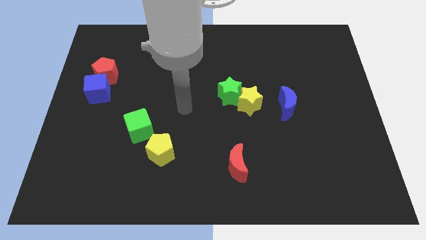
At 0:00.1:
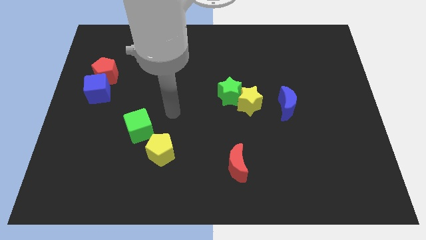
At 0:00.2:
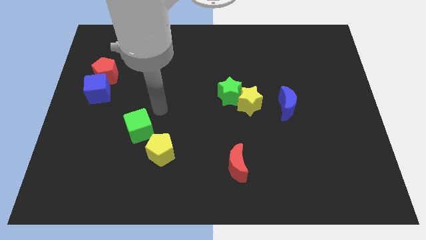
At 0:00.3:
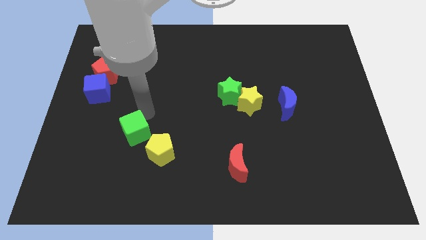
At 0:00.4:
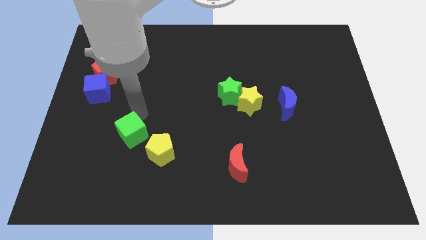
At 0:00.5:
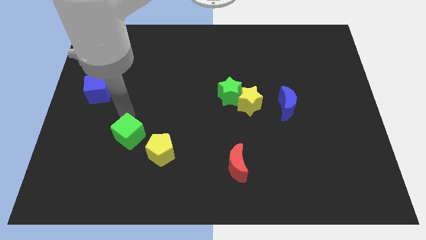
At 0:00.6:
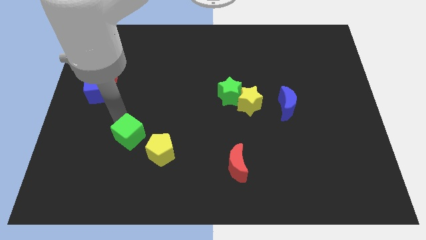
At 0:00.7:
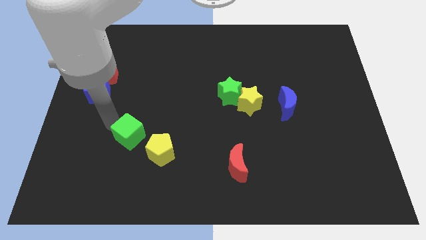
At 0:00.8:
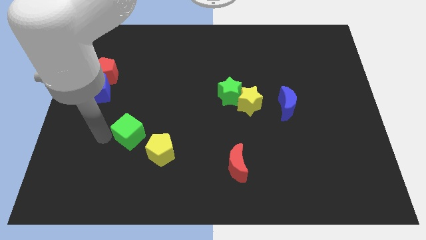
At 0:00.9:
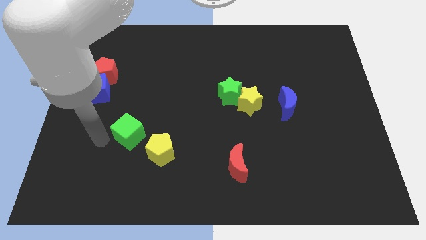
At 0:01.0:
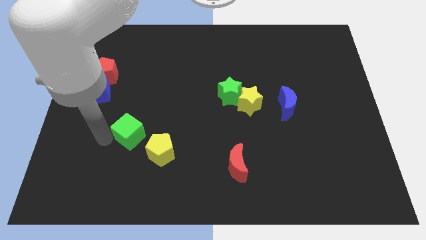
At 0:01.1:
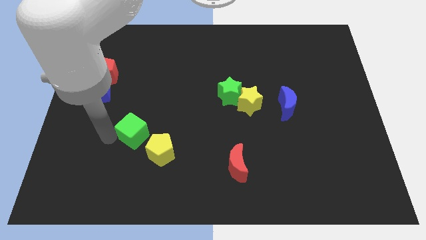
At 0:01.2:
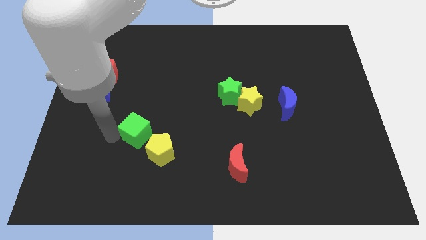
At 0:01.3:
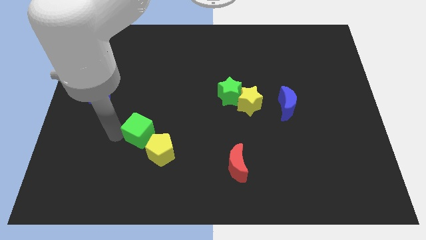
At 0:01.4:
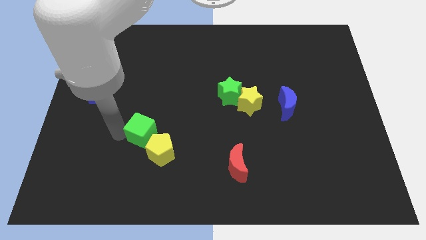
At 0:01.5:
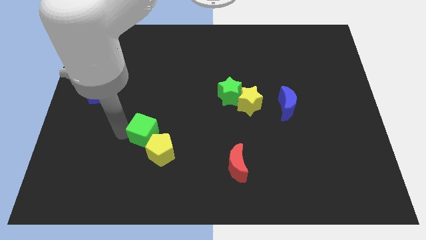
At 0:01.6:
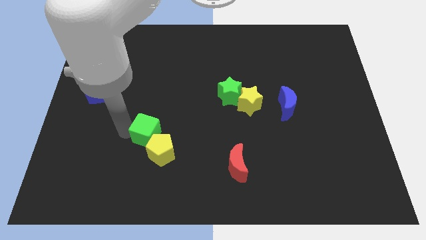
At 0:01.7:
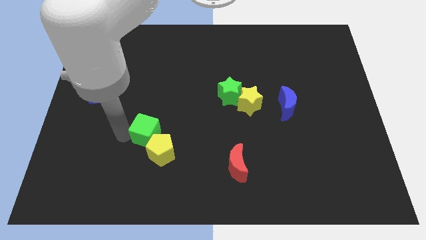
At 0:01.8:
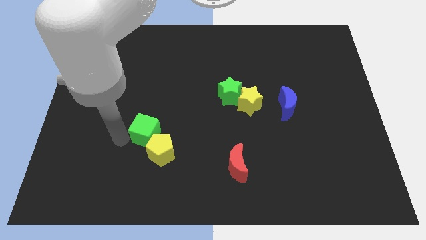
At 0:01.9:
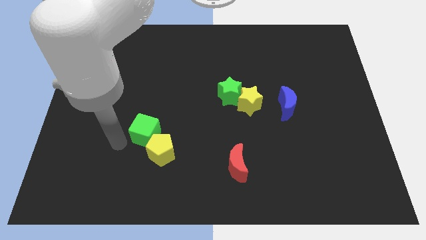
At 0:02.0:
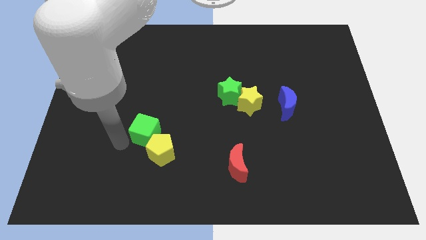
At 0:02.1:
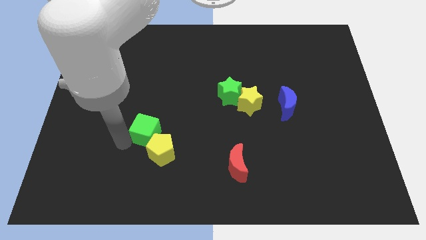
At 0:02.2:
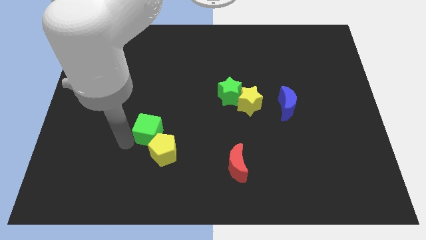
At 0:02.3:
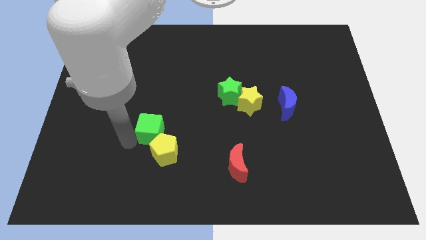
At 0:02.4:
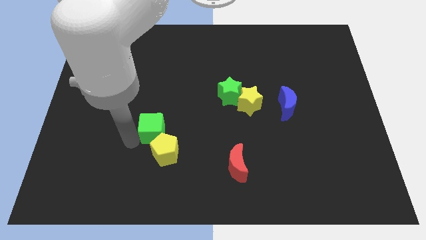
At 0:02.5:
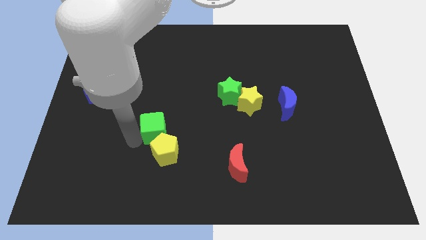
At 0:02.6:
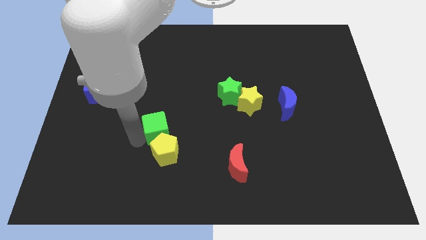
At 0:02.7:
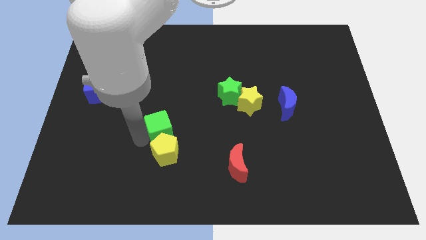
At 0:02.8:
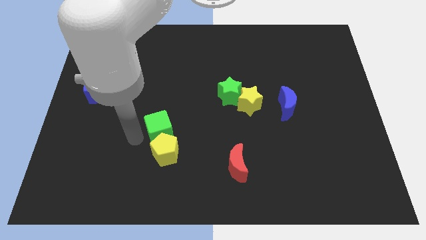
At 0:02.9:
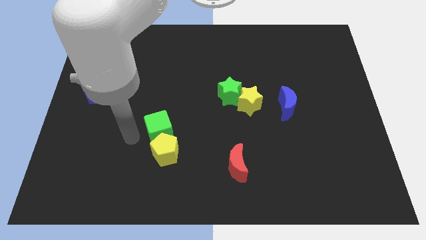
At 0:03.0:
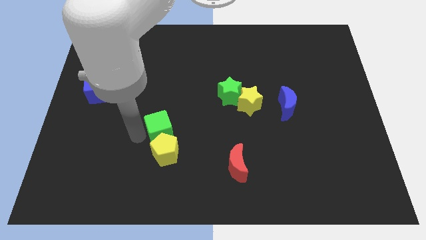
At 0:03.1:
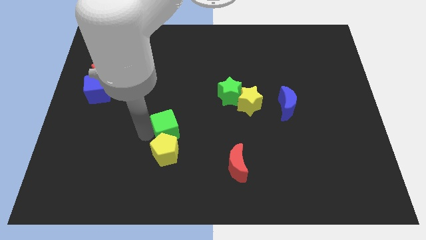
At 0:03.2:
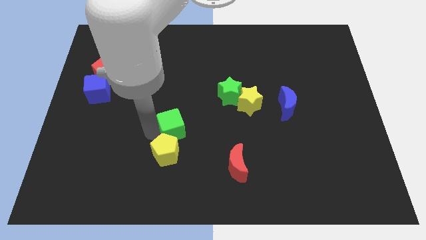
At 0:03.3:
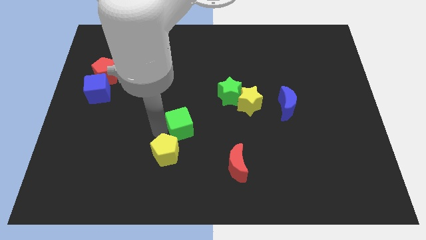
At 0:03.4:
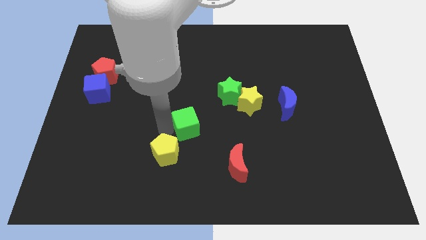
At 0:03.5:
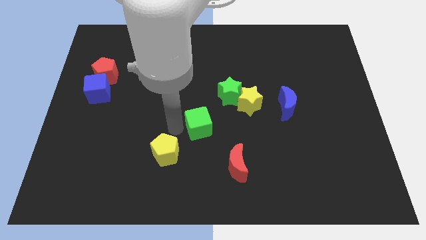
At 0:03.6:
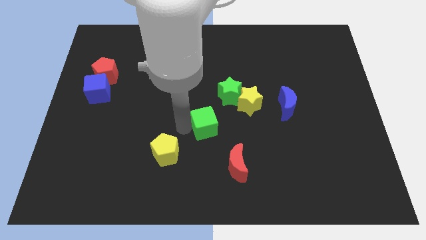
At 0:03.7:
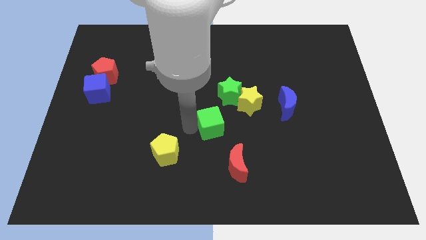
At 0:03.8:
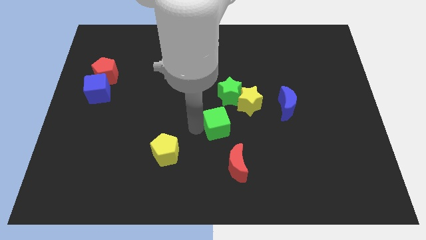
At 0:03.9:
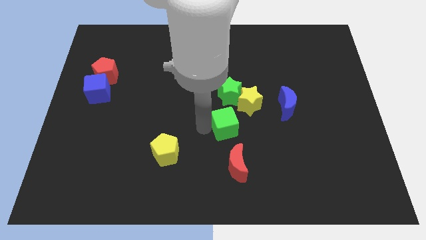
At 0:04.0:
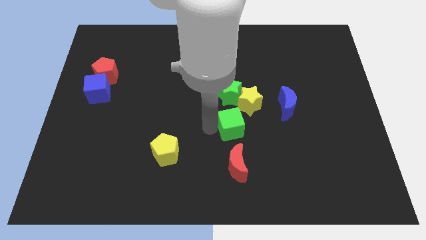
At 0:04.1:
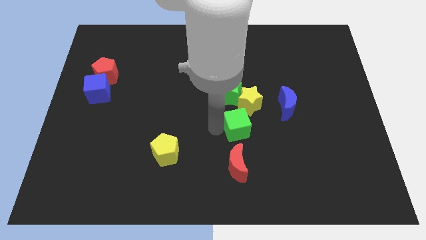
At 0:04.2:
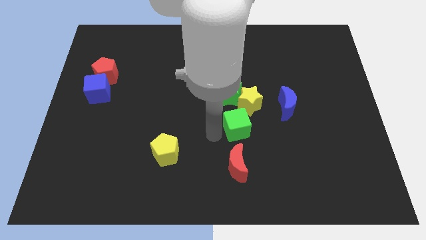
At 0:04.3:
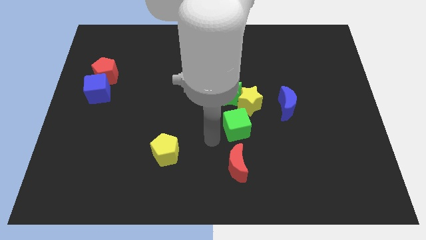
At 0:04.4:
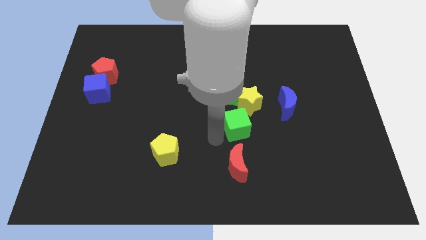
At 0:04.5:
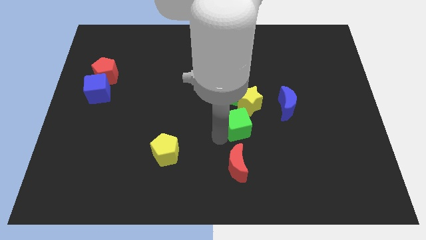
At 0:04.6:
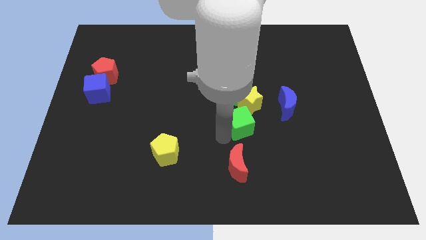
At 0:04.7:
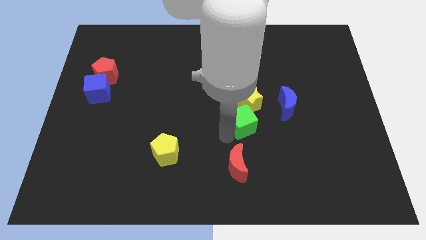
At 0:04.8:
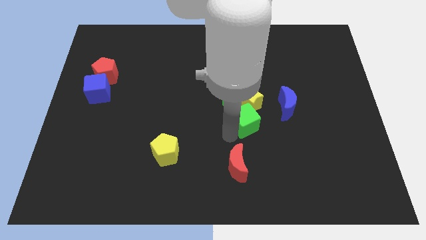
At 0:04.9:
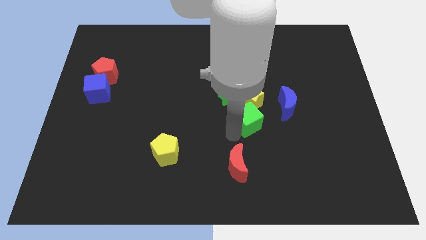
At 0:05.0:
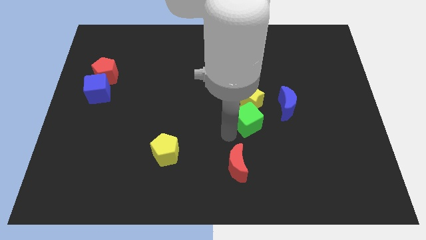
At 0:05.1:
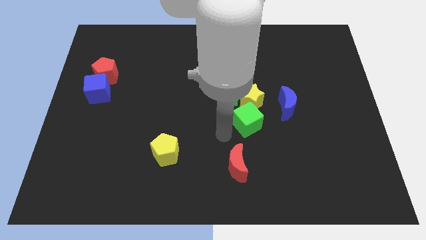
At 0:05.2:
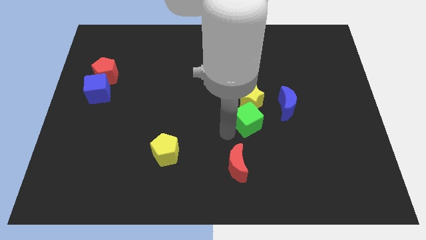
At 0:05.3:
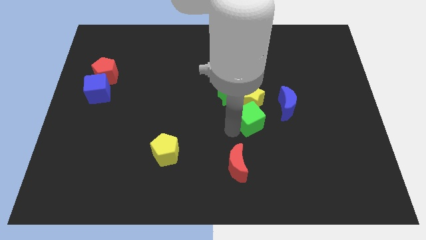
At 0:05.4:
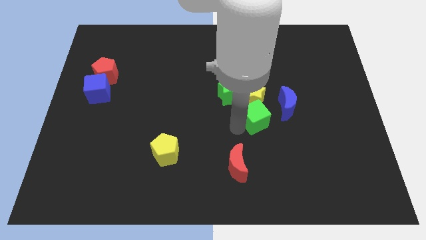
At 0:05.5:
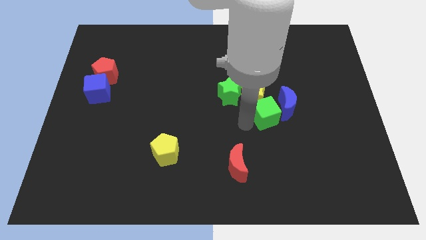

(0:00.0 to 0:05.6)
move the green cube next to the blue moon

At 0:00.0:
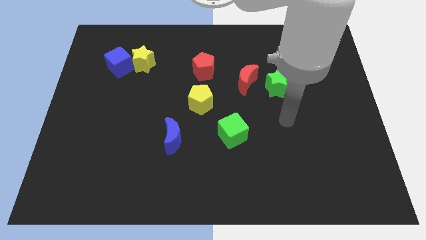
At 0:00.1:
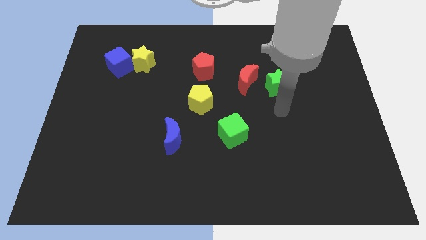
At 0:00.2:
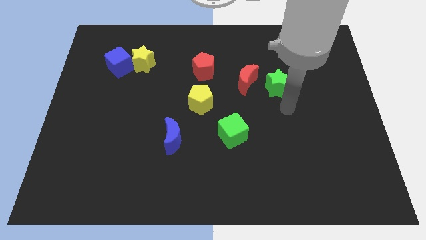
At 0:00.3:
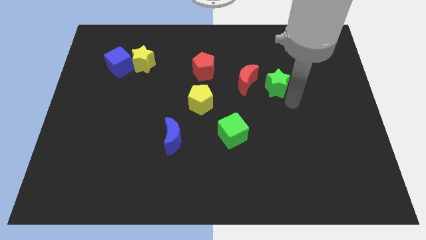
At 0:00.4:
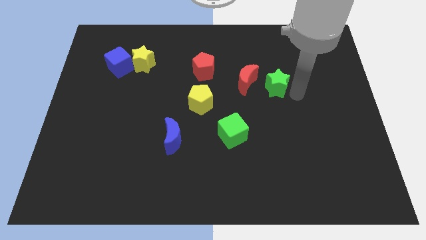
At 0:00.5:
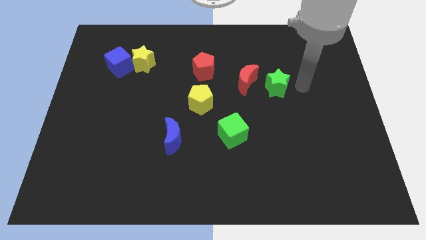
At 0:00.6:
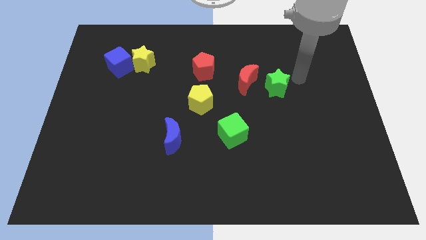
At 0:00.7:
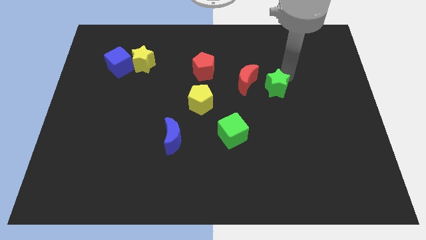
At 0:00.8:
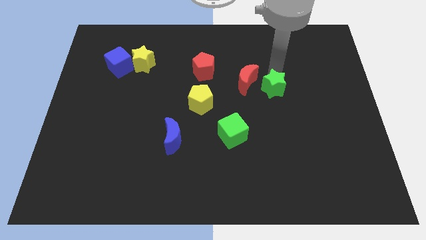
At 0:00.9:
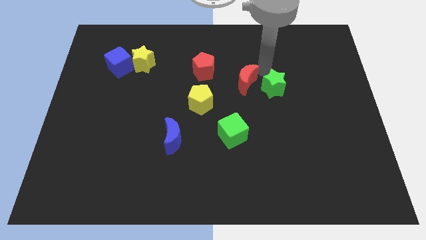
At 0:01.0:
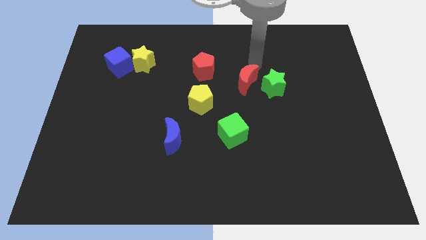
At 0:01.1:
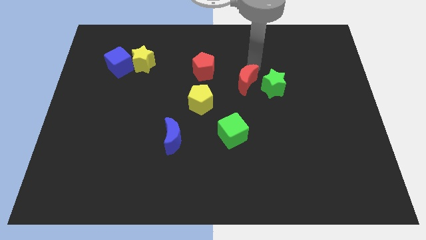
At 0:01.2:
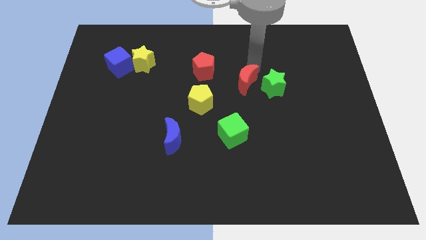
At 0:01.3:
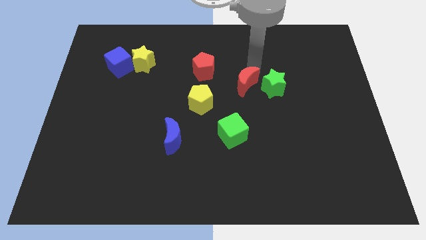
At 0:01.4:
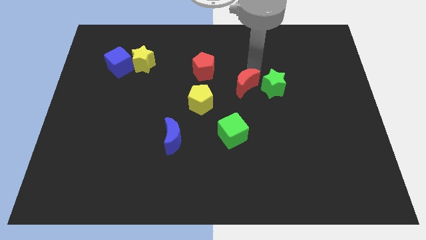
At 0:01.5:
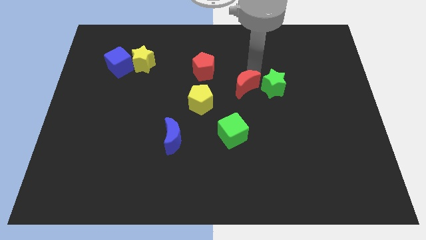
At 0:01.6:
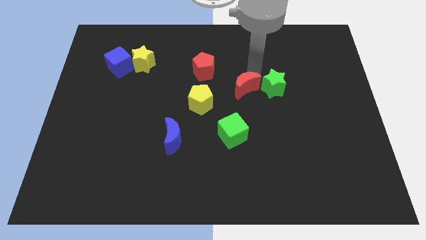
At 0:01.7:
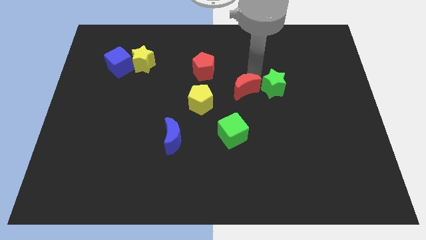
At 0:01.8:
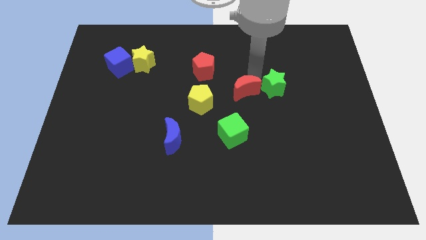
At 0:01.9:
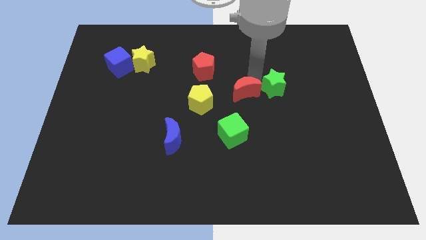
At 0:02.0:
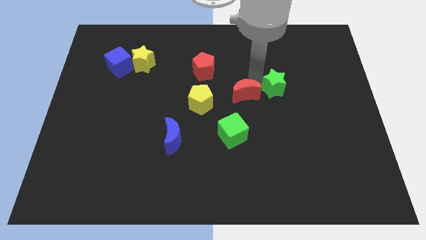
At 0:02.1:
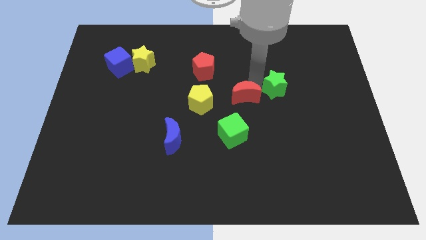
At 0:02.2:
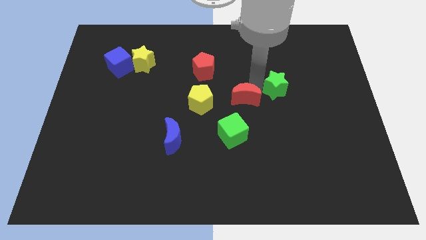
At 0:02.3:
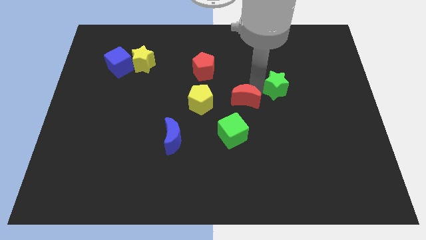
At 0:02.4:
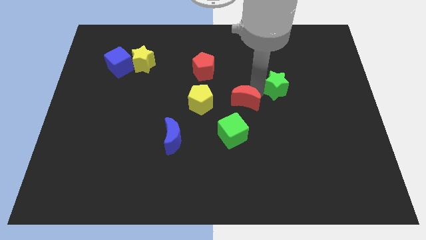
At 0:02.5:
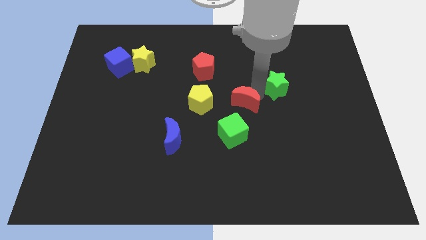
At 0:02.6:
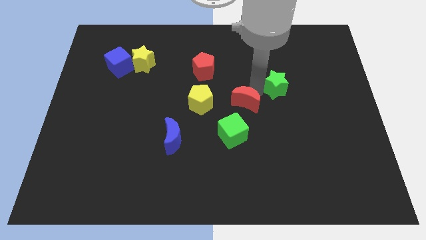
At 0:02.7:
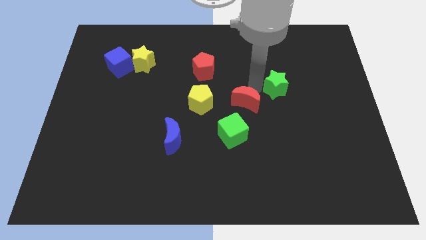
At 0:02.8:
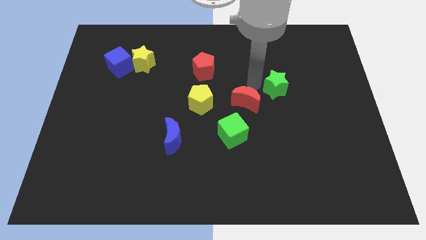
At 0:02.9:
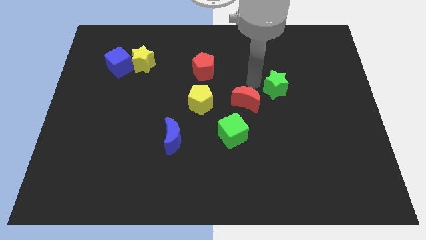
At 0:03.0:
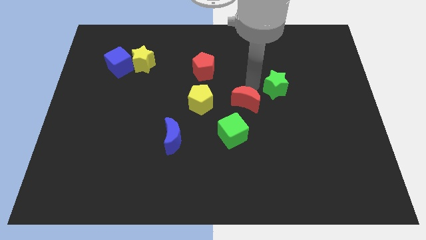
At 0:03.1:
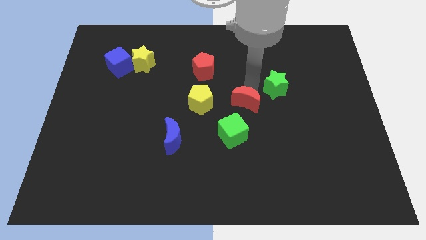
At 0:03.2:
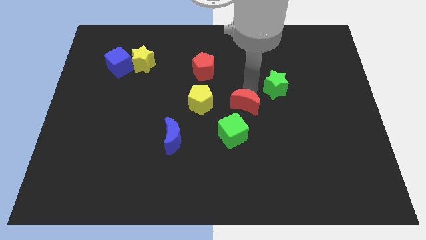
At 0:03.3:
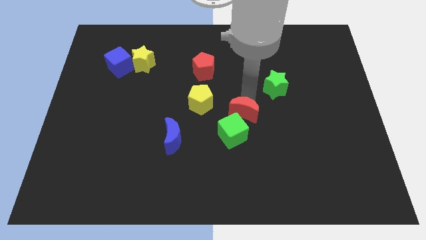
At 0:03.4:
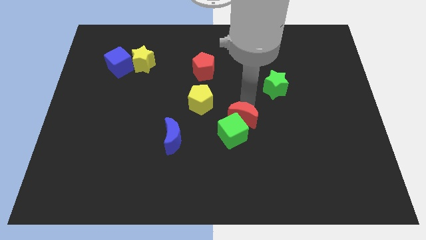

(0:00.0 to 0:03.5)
push the red moon next to the green cube
